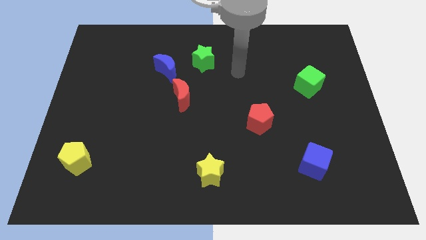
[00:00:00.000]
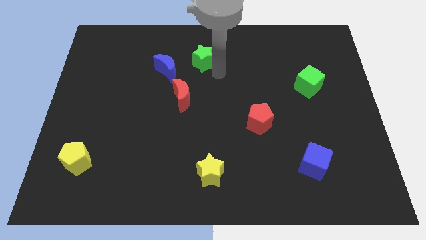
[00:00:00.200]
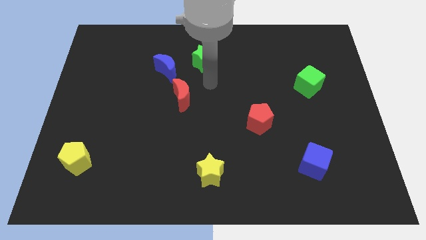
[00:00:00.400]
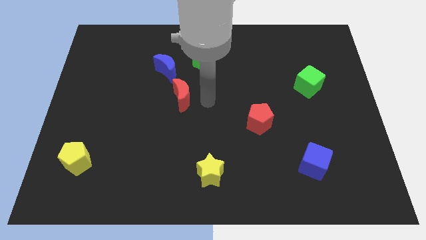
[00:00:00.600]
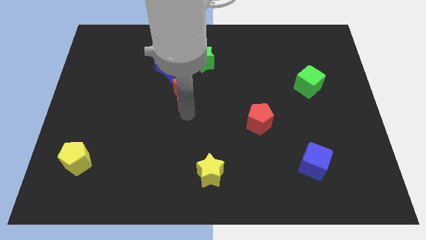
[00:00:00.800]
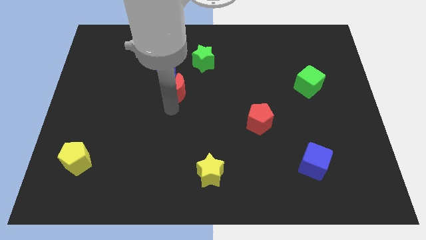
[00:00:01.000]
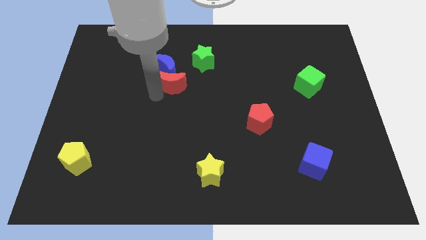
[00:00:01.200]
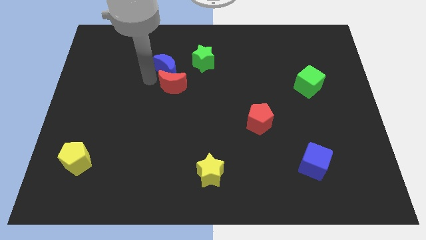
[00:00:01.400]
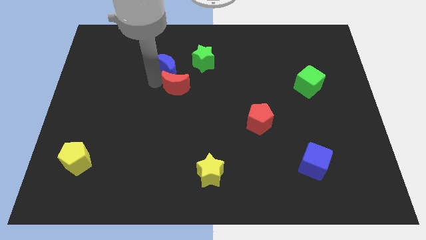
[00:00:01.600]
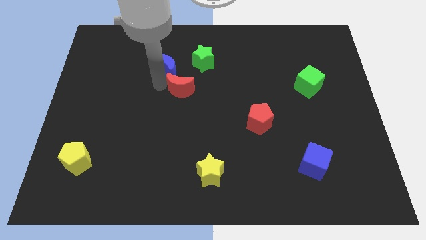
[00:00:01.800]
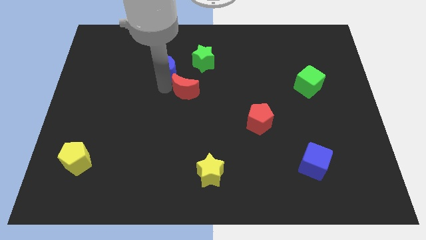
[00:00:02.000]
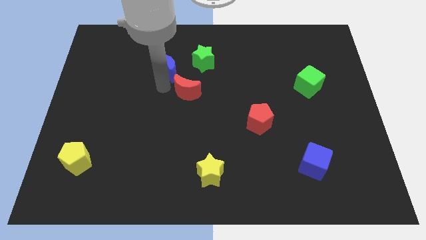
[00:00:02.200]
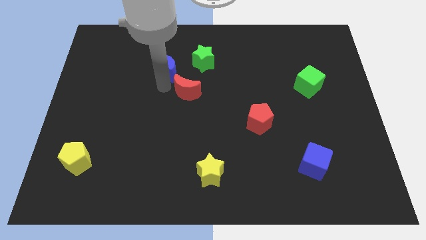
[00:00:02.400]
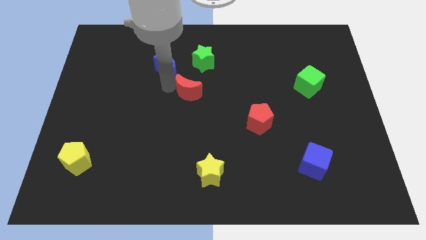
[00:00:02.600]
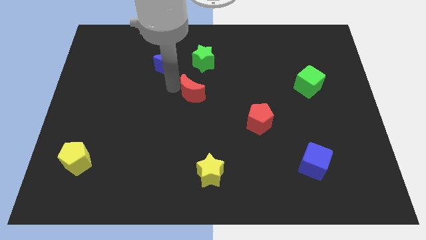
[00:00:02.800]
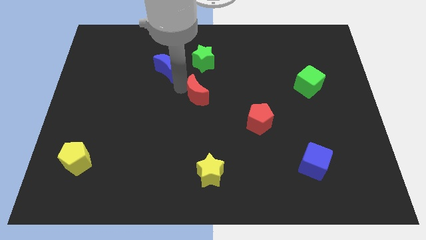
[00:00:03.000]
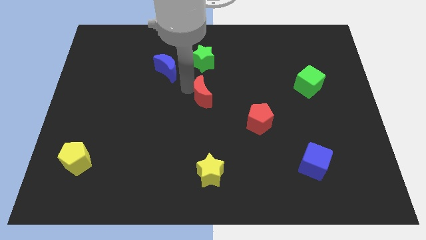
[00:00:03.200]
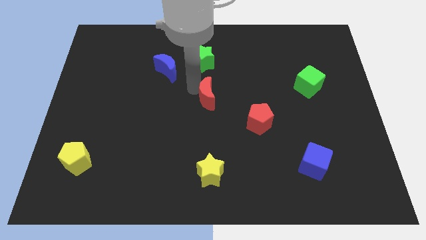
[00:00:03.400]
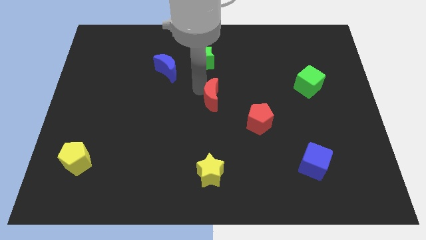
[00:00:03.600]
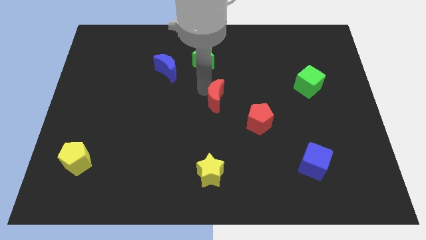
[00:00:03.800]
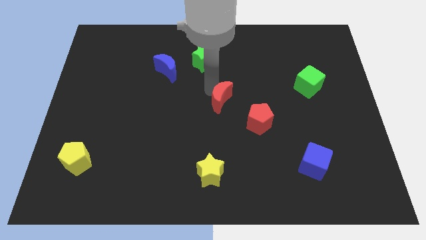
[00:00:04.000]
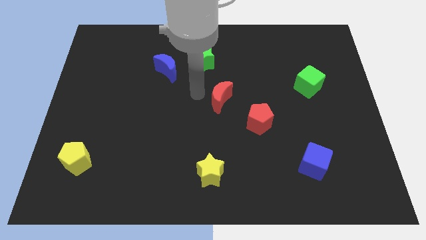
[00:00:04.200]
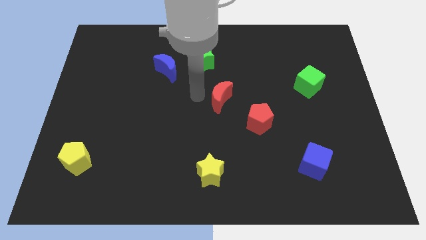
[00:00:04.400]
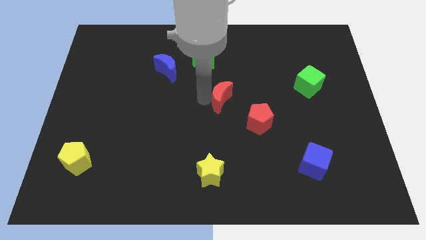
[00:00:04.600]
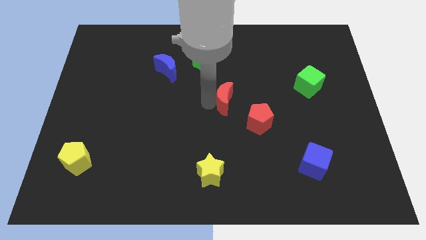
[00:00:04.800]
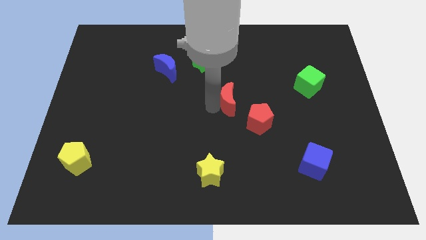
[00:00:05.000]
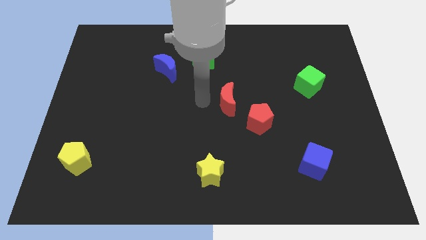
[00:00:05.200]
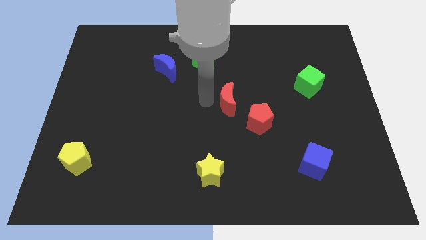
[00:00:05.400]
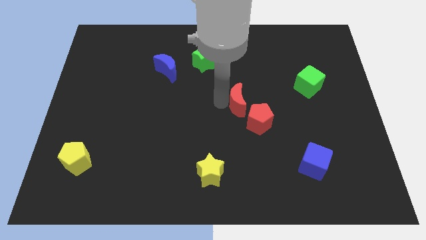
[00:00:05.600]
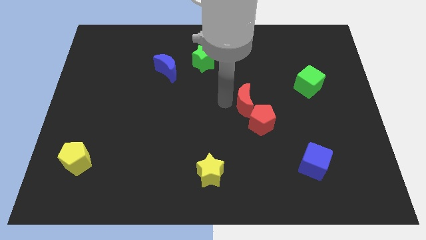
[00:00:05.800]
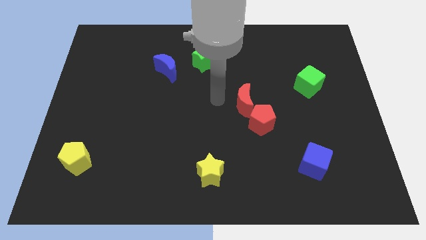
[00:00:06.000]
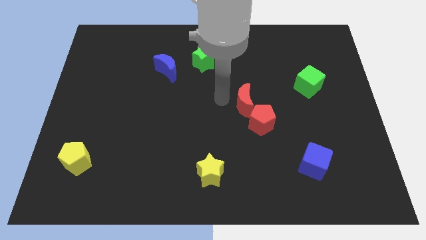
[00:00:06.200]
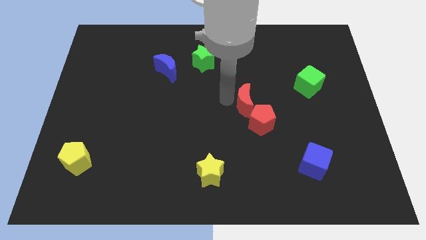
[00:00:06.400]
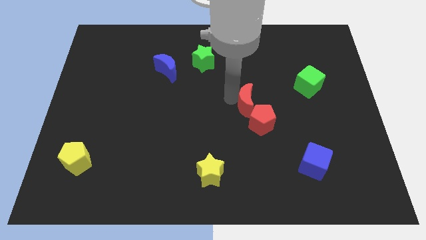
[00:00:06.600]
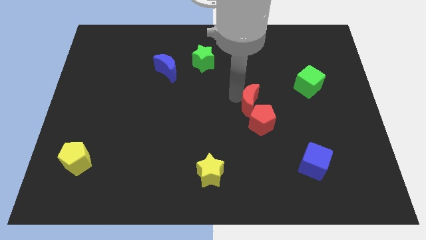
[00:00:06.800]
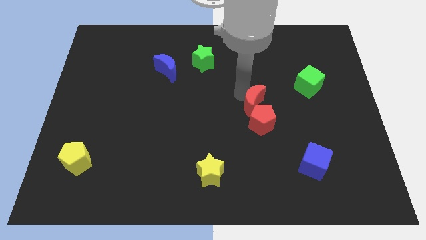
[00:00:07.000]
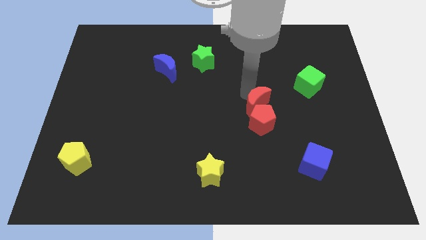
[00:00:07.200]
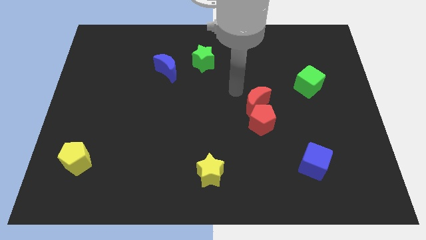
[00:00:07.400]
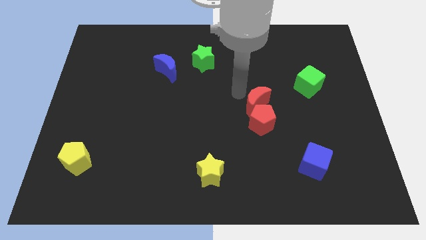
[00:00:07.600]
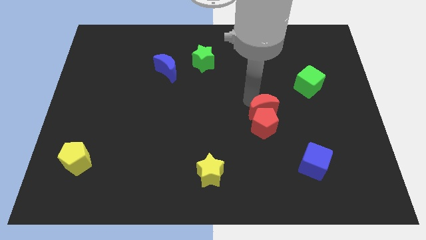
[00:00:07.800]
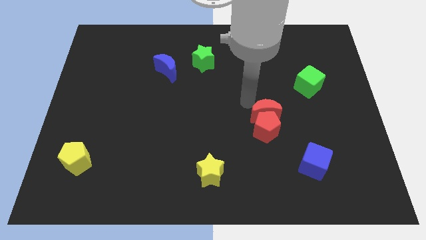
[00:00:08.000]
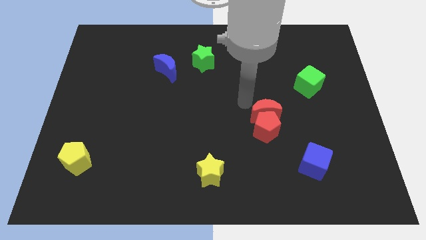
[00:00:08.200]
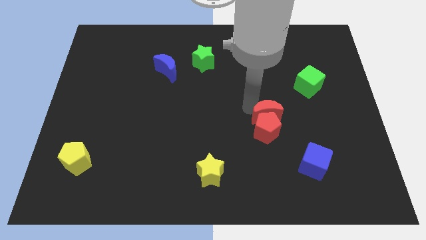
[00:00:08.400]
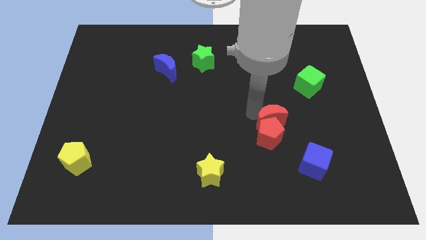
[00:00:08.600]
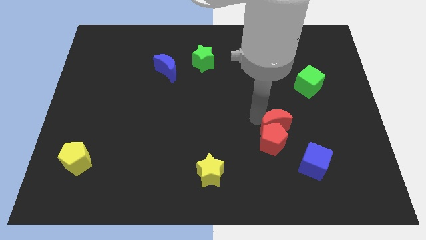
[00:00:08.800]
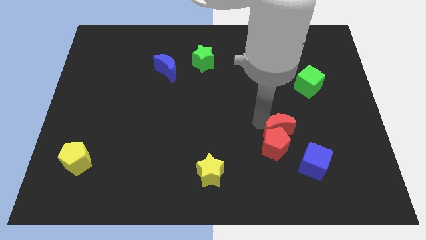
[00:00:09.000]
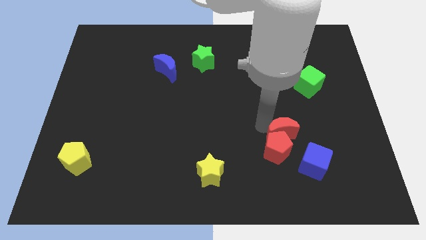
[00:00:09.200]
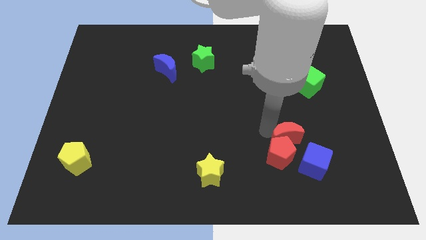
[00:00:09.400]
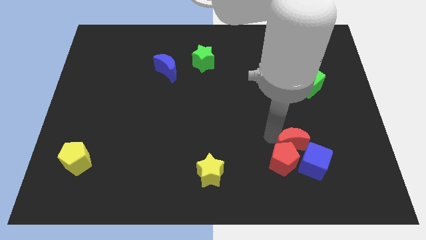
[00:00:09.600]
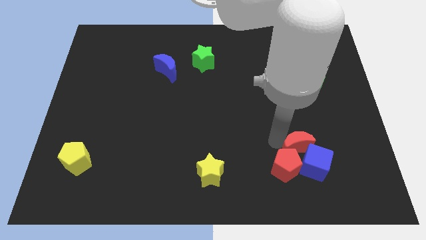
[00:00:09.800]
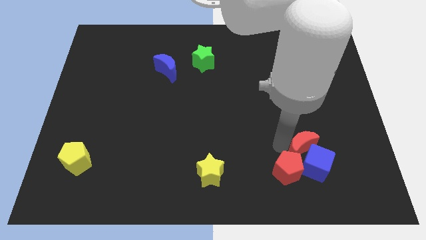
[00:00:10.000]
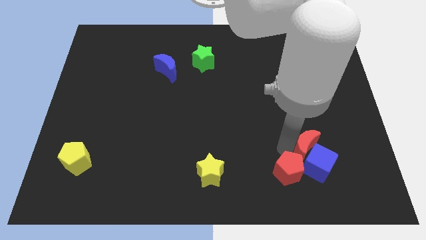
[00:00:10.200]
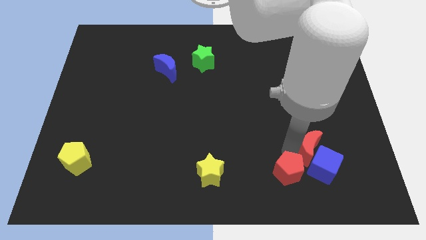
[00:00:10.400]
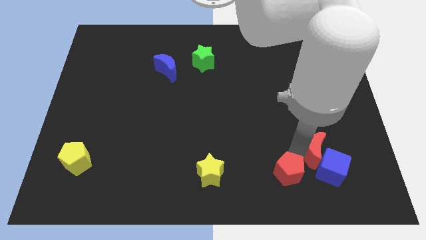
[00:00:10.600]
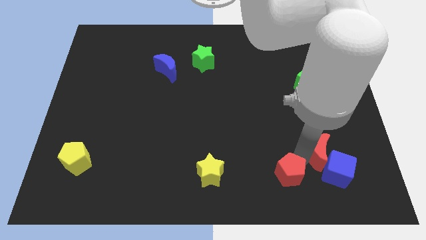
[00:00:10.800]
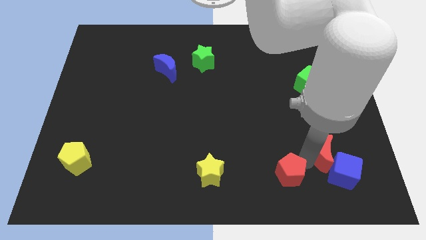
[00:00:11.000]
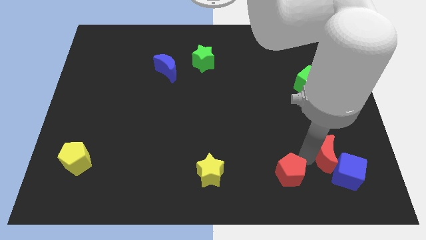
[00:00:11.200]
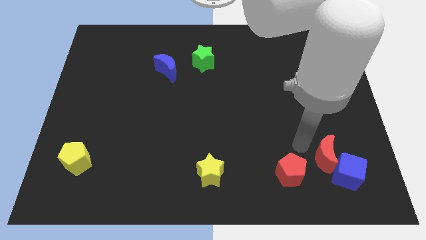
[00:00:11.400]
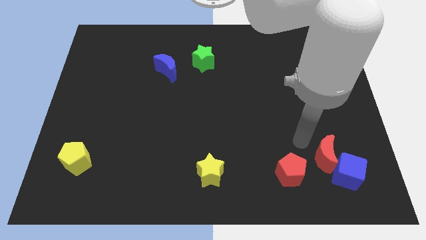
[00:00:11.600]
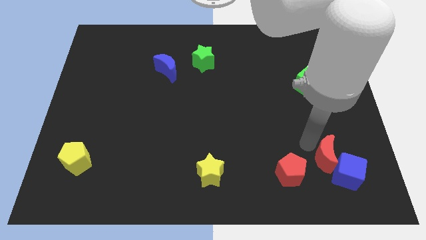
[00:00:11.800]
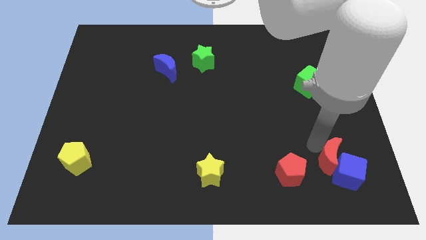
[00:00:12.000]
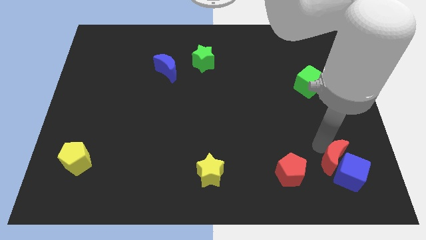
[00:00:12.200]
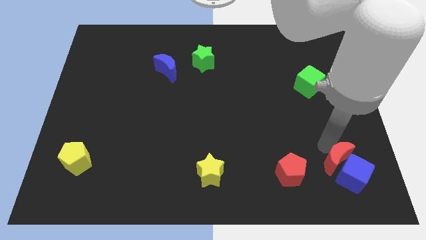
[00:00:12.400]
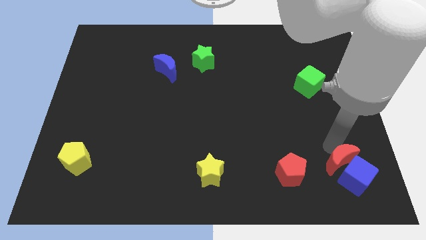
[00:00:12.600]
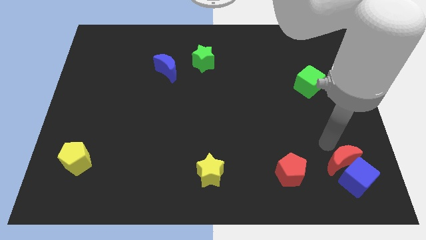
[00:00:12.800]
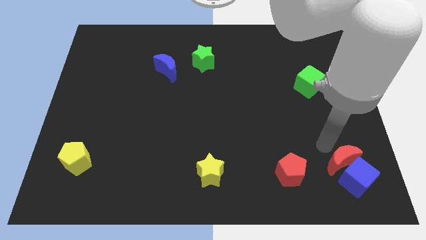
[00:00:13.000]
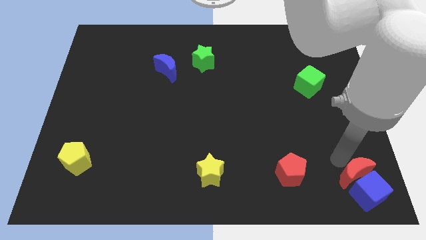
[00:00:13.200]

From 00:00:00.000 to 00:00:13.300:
push the red moon to the bottom right of the board
